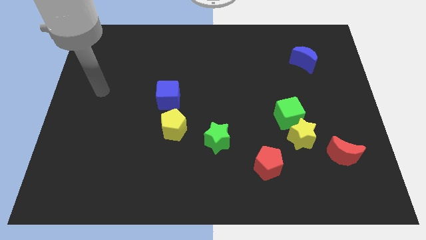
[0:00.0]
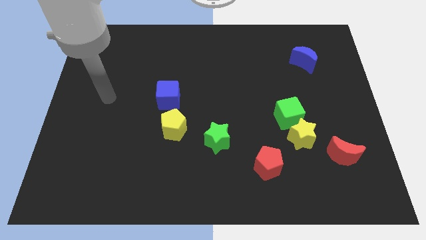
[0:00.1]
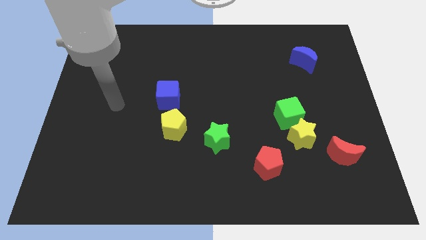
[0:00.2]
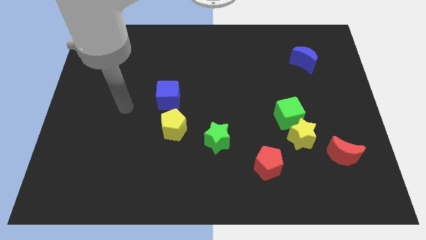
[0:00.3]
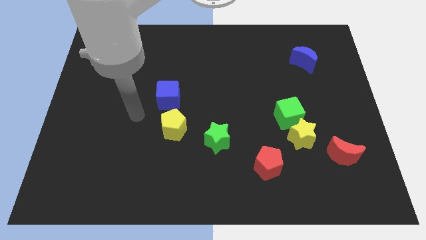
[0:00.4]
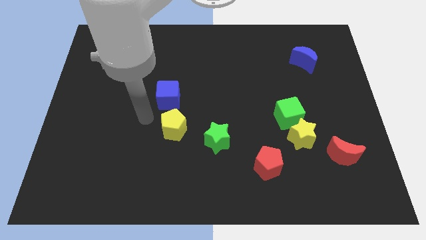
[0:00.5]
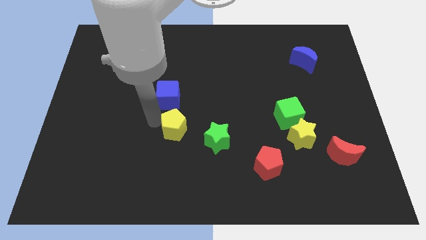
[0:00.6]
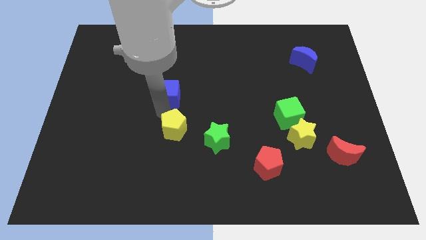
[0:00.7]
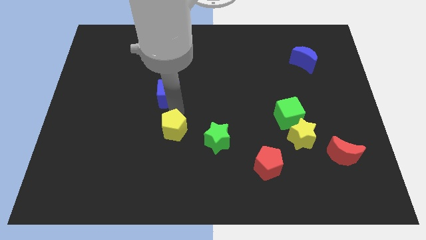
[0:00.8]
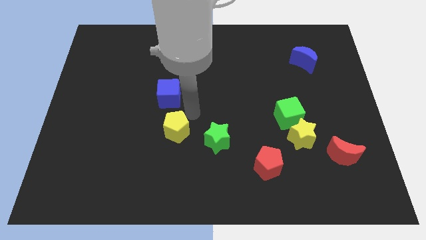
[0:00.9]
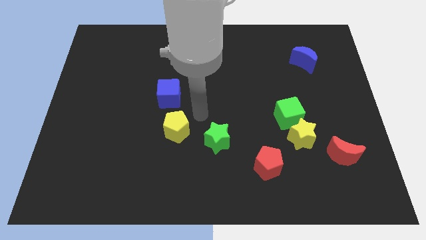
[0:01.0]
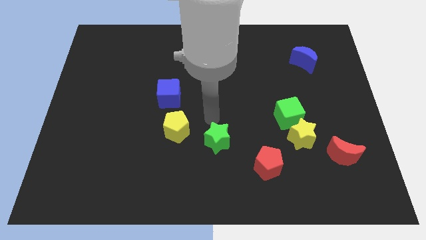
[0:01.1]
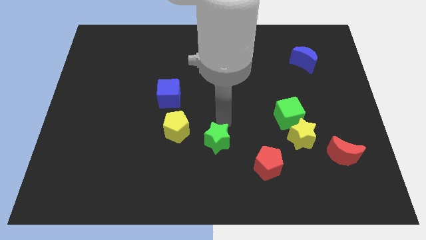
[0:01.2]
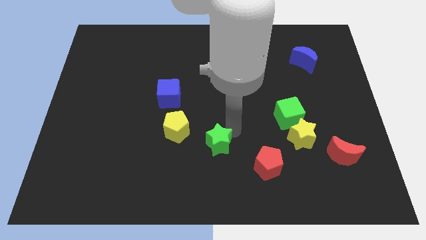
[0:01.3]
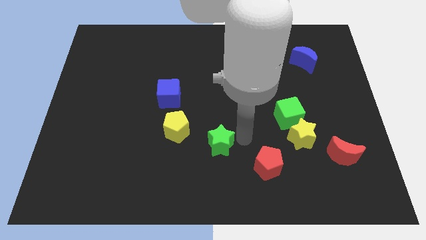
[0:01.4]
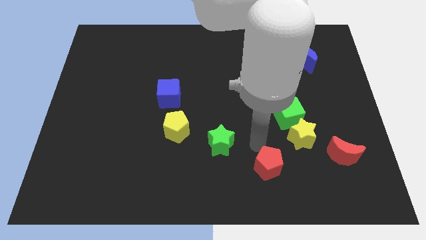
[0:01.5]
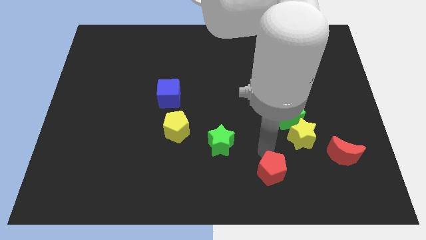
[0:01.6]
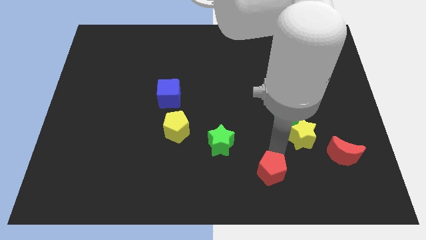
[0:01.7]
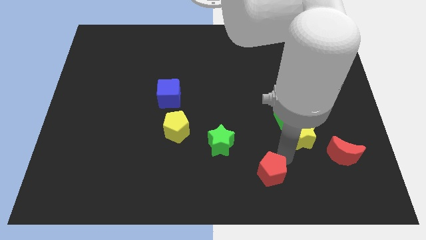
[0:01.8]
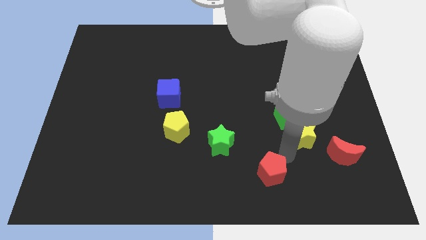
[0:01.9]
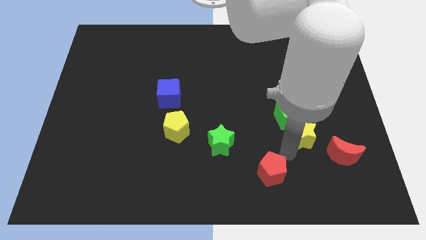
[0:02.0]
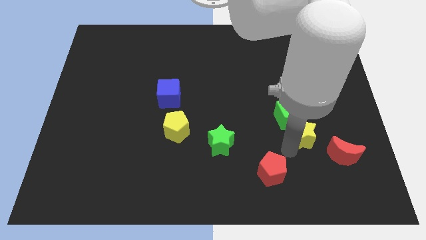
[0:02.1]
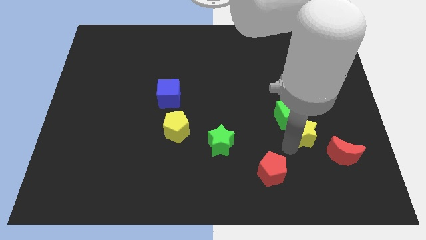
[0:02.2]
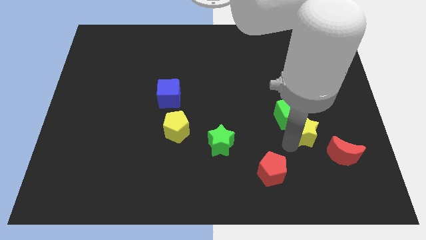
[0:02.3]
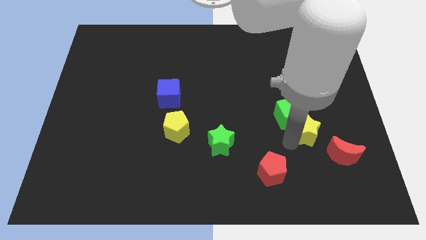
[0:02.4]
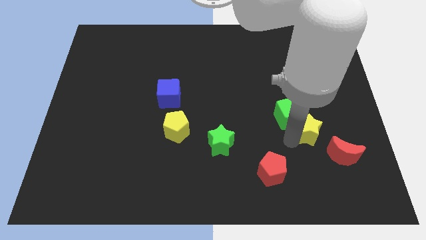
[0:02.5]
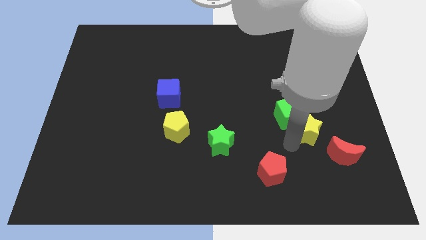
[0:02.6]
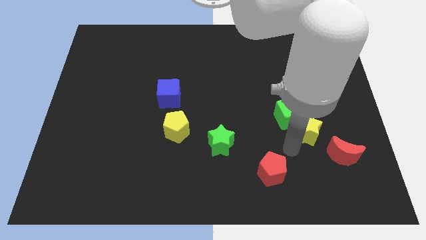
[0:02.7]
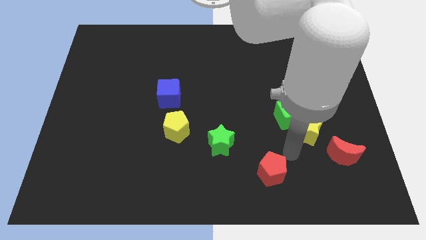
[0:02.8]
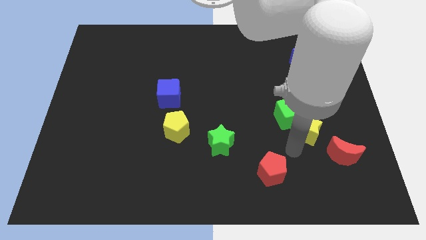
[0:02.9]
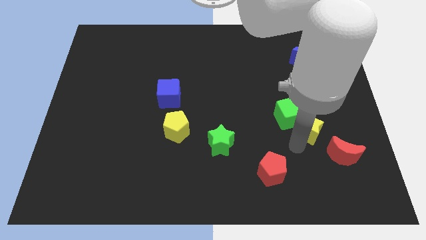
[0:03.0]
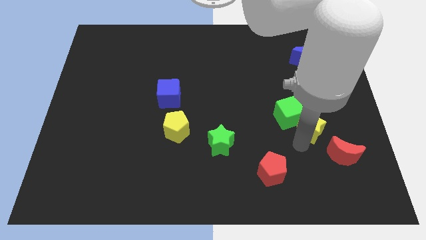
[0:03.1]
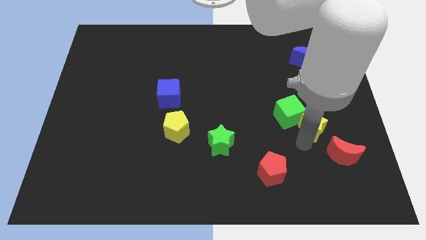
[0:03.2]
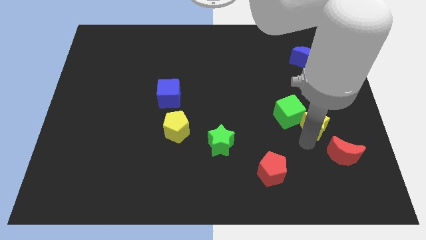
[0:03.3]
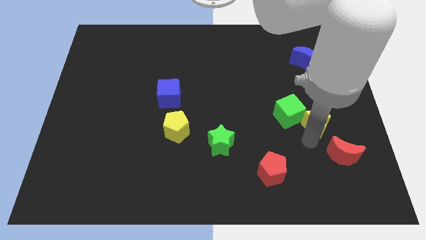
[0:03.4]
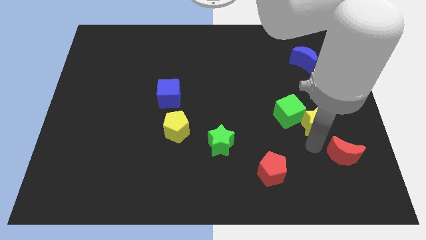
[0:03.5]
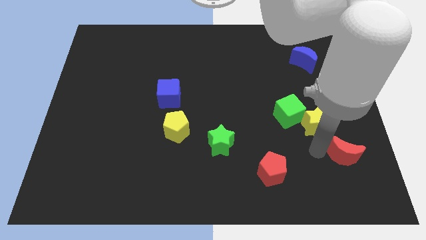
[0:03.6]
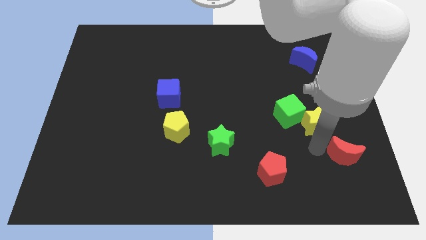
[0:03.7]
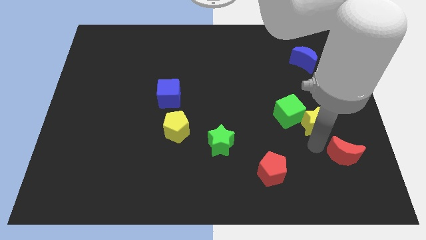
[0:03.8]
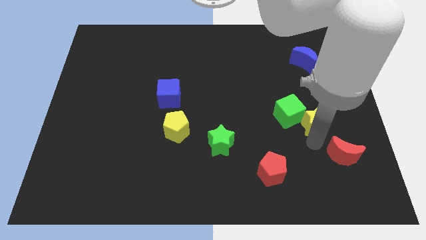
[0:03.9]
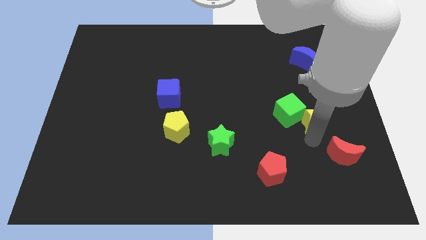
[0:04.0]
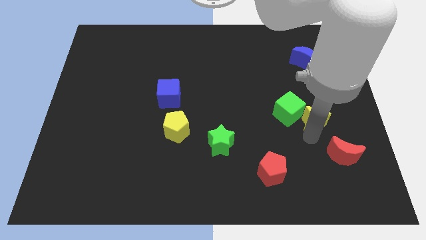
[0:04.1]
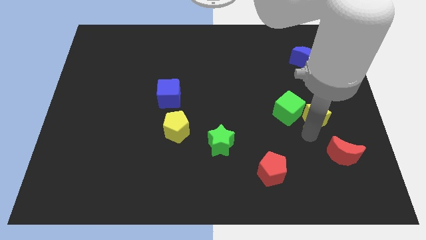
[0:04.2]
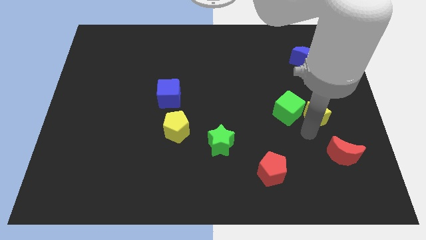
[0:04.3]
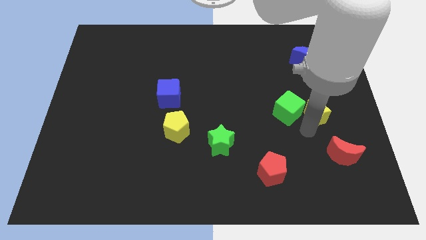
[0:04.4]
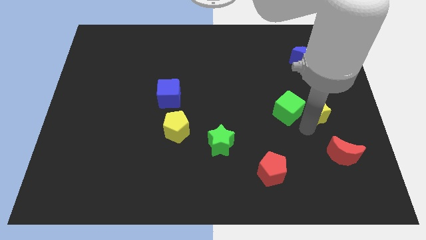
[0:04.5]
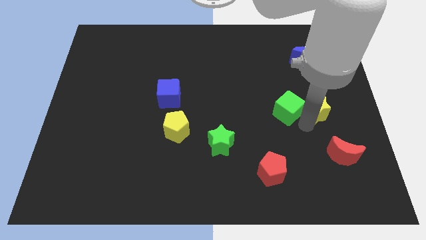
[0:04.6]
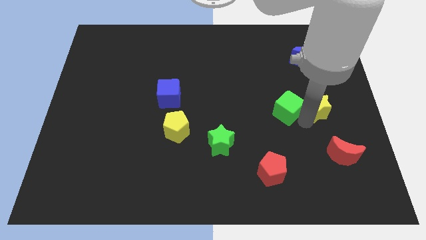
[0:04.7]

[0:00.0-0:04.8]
slide the yellow star up a bit

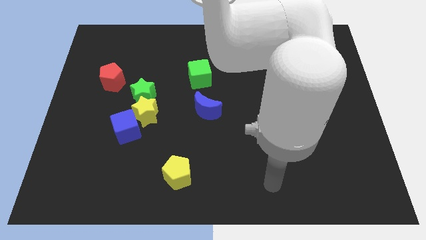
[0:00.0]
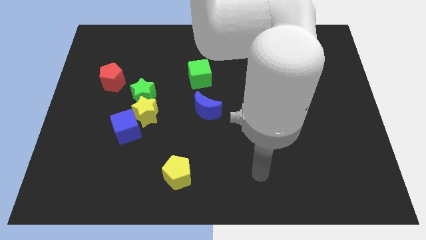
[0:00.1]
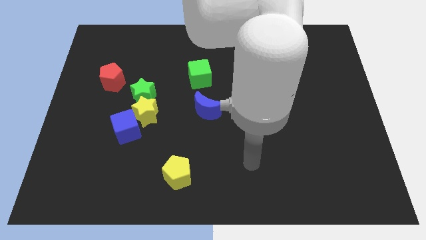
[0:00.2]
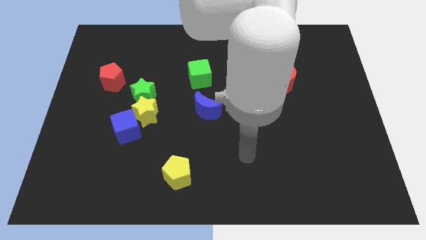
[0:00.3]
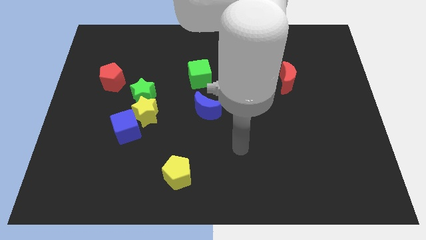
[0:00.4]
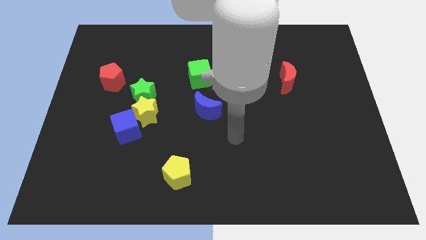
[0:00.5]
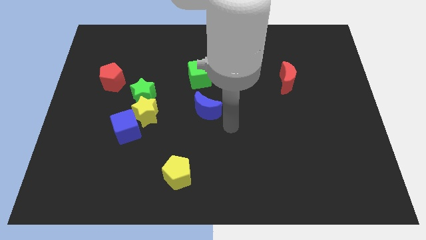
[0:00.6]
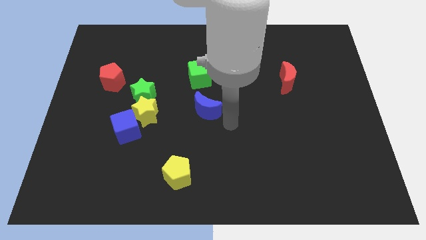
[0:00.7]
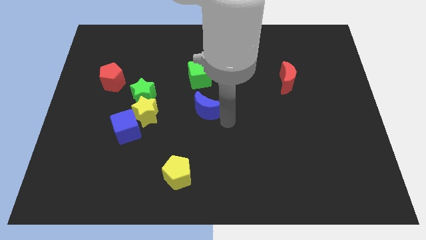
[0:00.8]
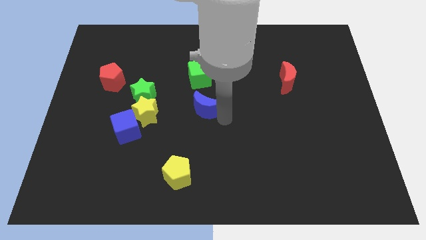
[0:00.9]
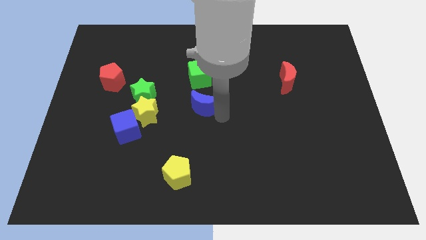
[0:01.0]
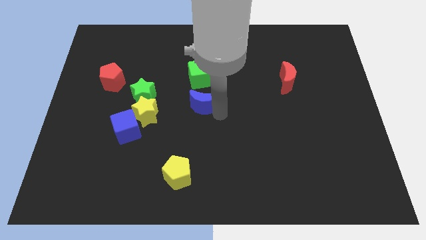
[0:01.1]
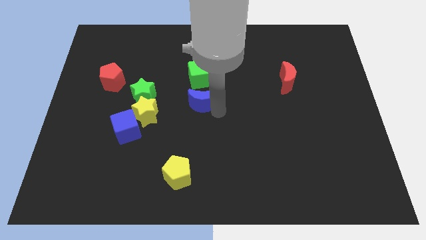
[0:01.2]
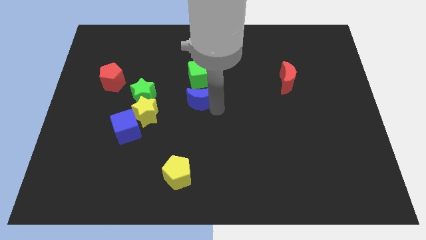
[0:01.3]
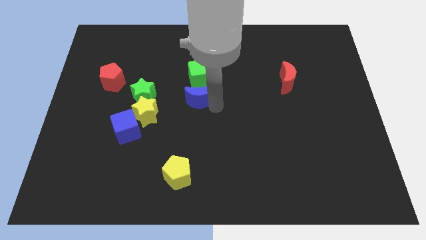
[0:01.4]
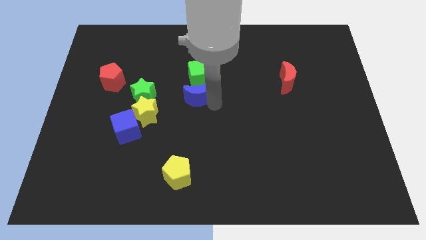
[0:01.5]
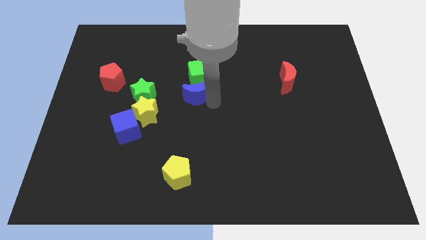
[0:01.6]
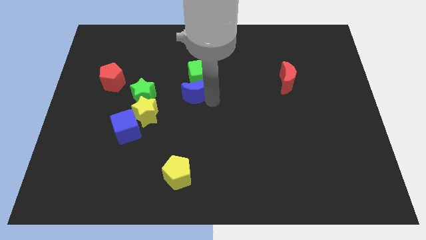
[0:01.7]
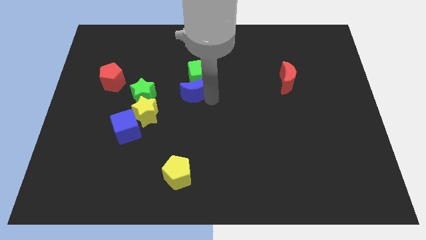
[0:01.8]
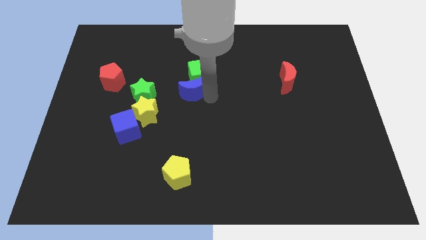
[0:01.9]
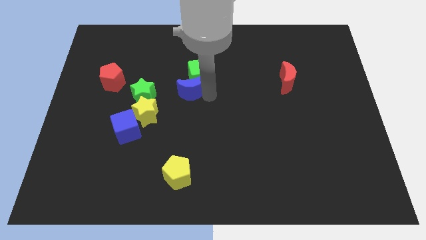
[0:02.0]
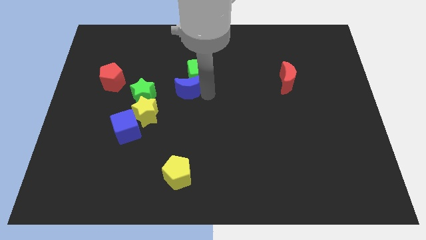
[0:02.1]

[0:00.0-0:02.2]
move the blue moon a bit up and to the left

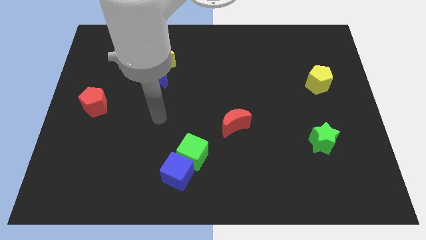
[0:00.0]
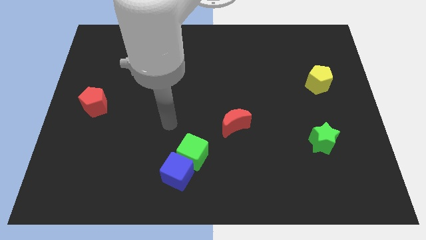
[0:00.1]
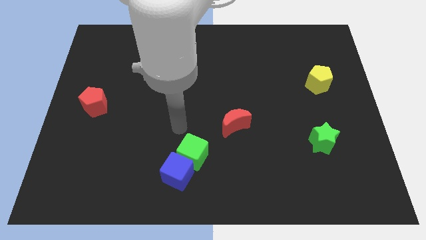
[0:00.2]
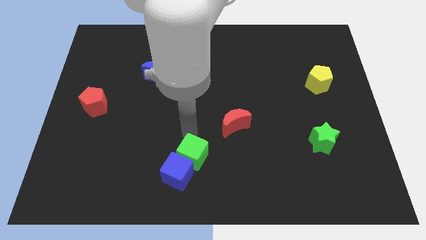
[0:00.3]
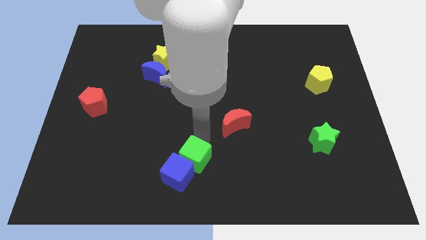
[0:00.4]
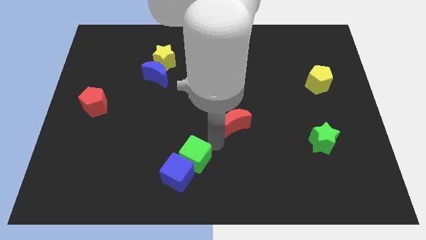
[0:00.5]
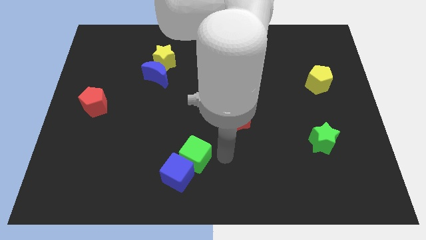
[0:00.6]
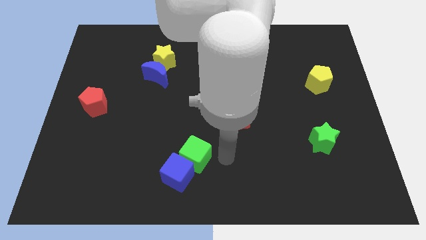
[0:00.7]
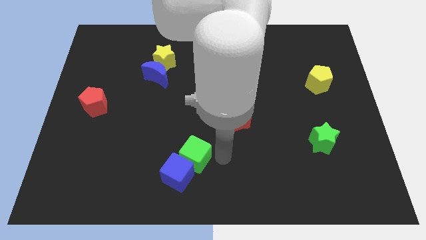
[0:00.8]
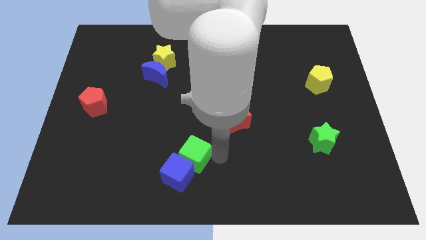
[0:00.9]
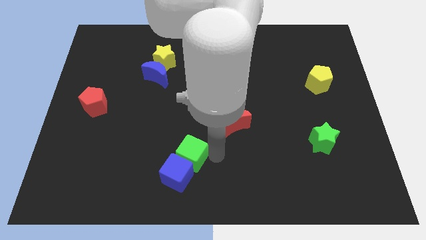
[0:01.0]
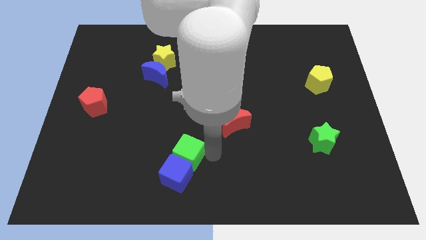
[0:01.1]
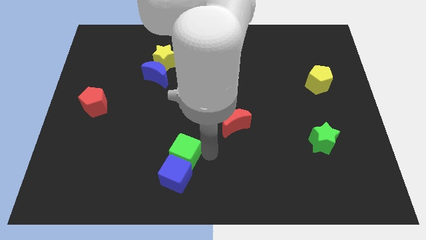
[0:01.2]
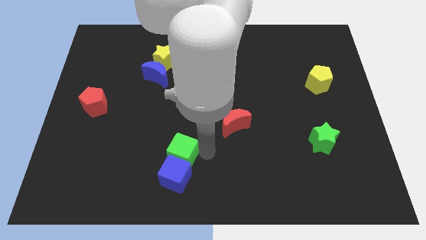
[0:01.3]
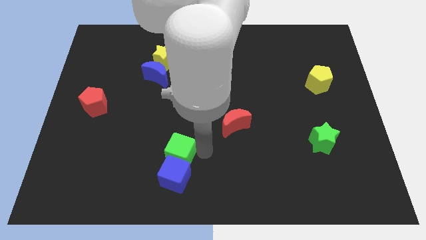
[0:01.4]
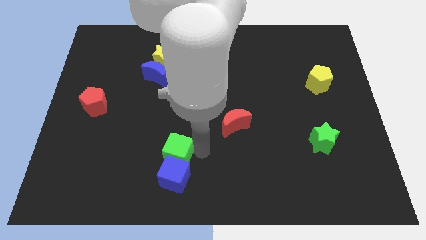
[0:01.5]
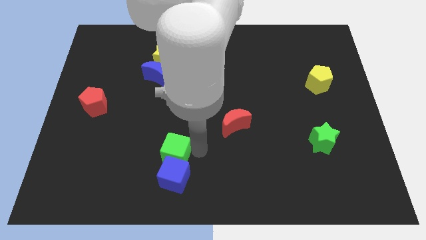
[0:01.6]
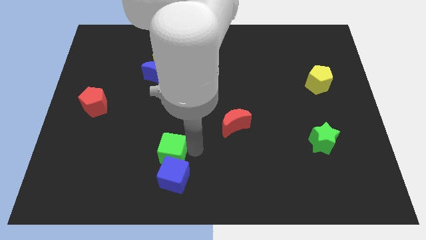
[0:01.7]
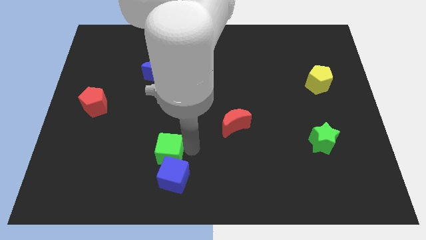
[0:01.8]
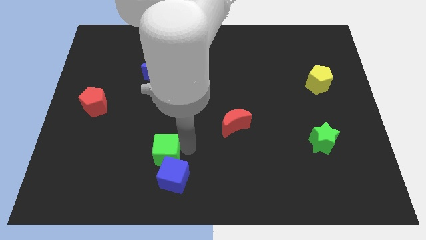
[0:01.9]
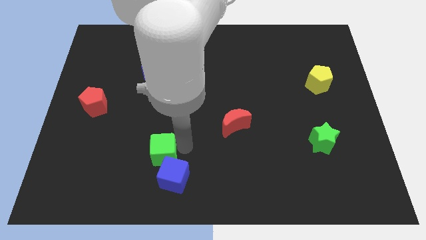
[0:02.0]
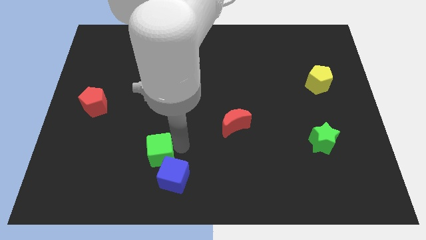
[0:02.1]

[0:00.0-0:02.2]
slightly slide the green cube to the left
